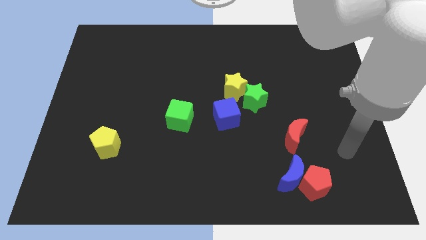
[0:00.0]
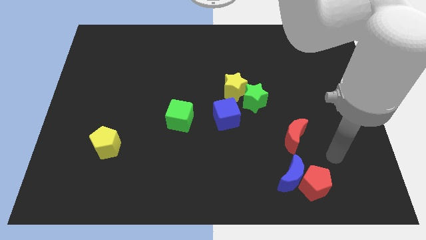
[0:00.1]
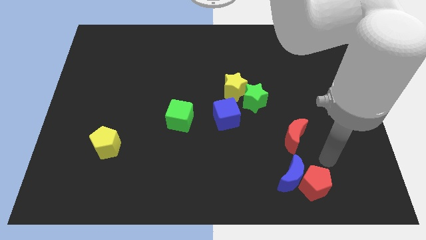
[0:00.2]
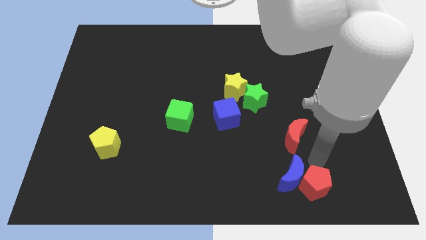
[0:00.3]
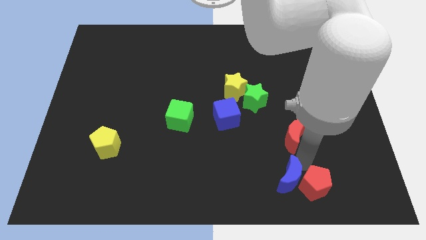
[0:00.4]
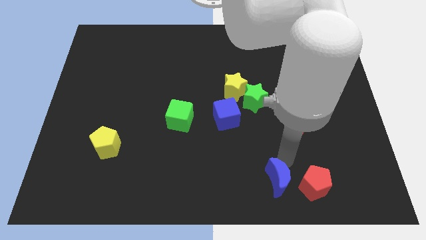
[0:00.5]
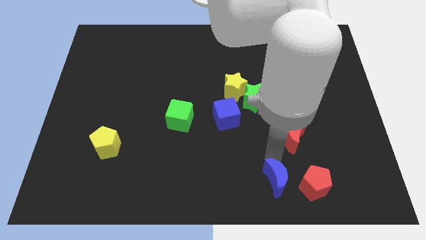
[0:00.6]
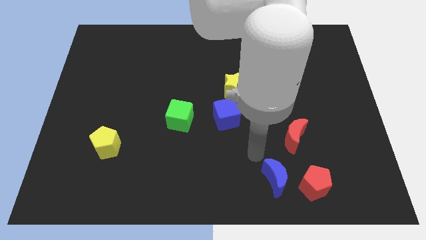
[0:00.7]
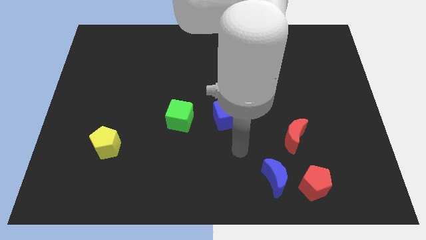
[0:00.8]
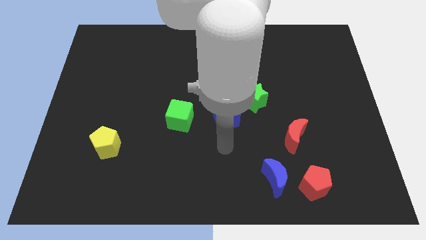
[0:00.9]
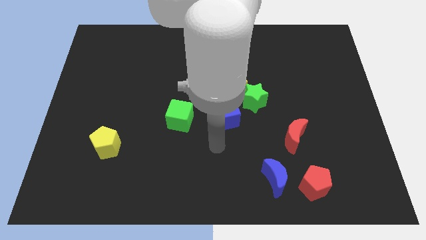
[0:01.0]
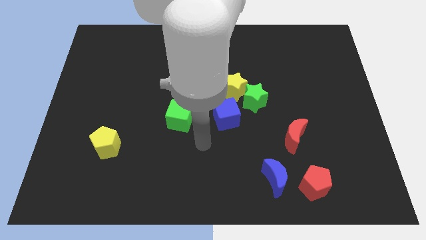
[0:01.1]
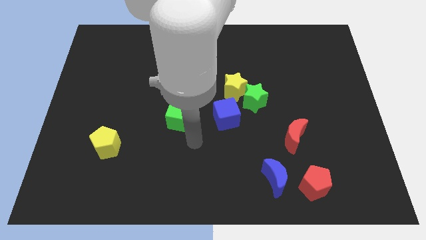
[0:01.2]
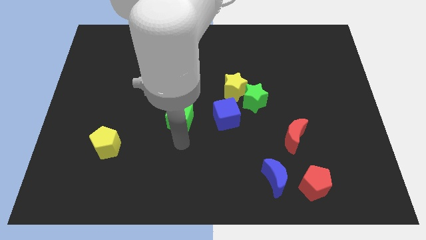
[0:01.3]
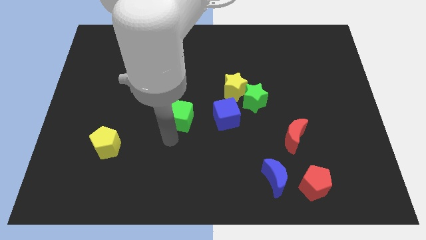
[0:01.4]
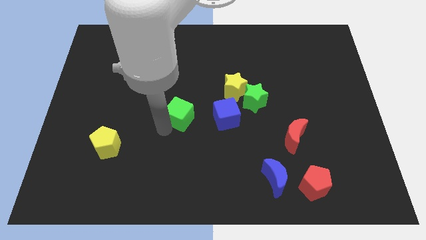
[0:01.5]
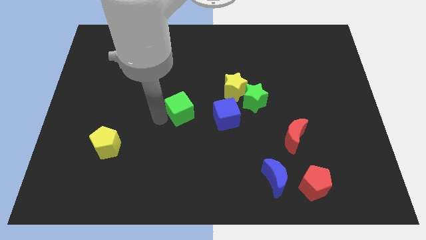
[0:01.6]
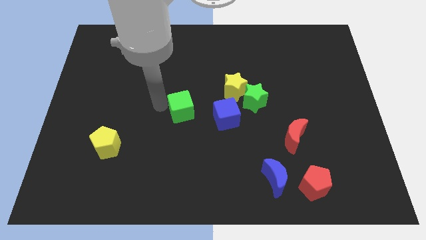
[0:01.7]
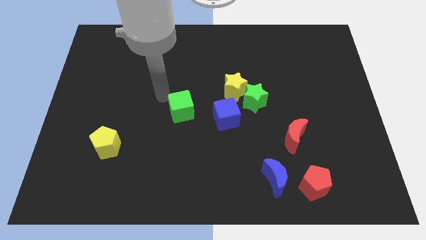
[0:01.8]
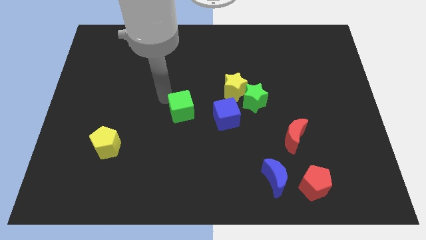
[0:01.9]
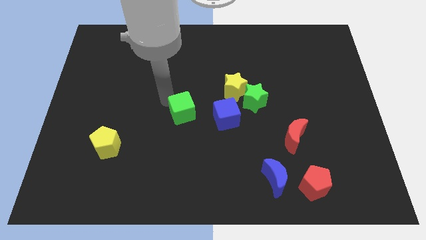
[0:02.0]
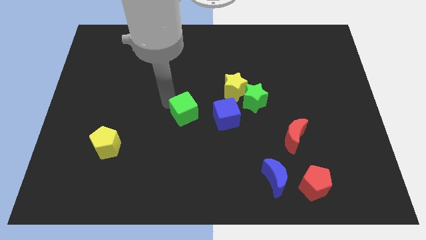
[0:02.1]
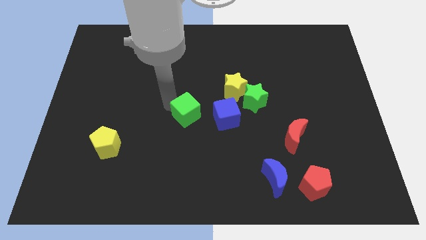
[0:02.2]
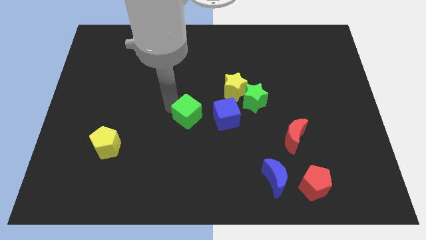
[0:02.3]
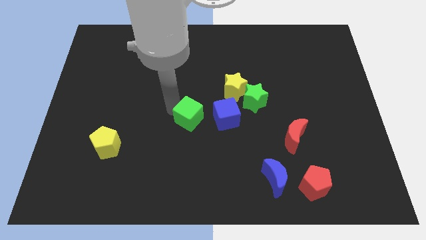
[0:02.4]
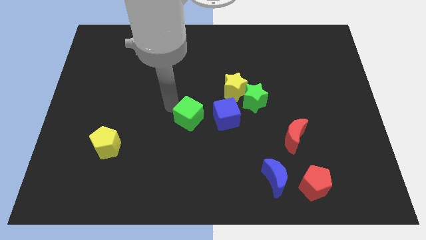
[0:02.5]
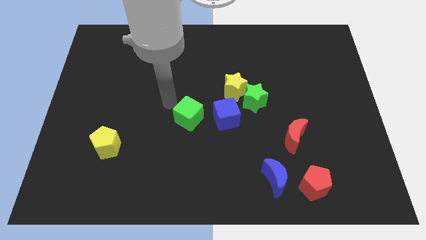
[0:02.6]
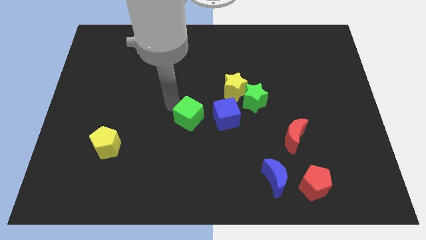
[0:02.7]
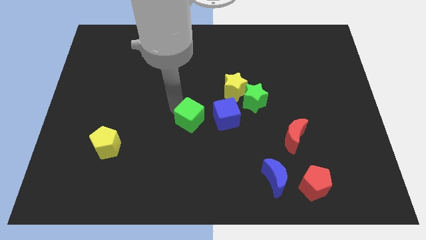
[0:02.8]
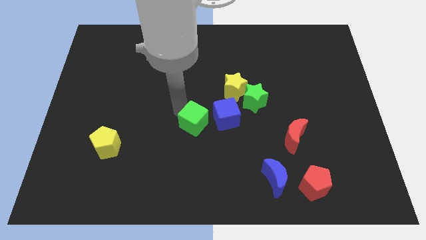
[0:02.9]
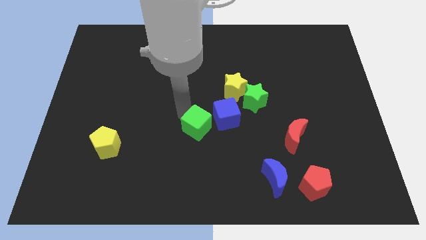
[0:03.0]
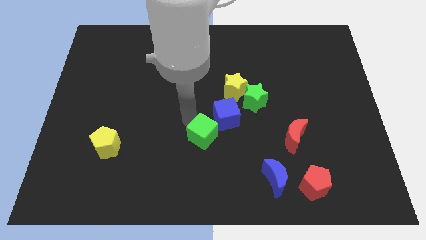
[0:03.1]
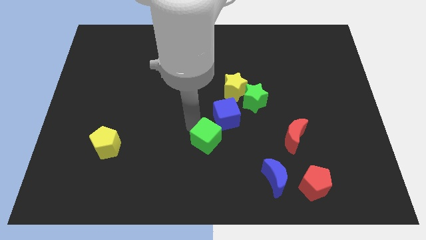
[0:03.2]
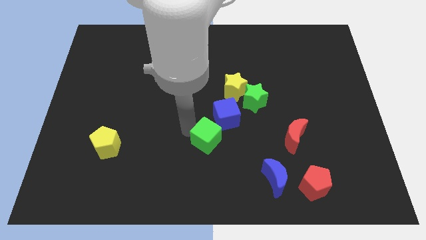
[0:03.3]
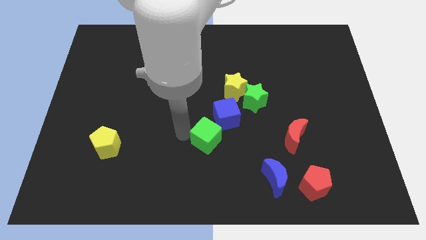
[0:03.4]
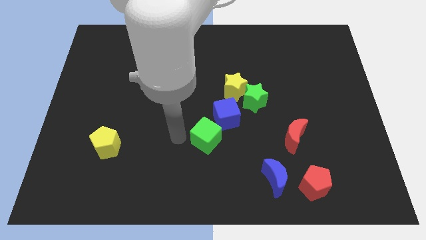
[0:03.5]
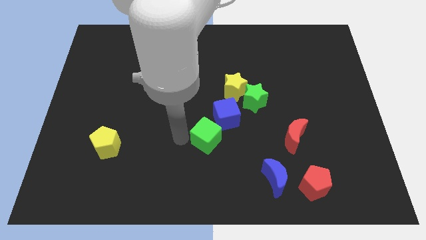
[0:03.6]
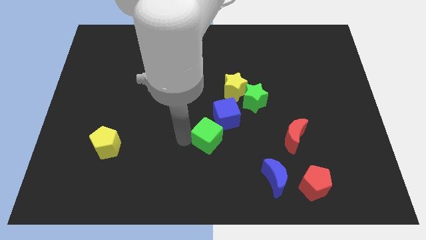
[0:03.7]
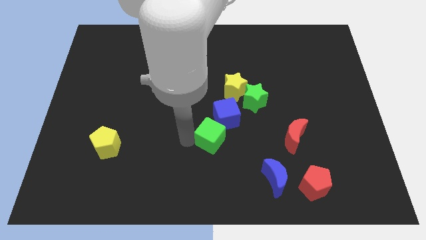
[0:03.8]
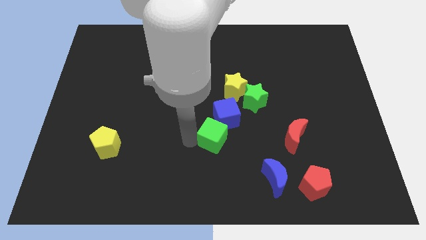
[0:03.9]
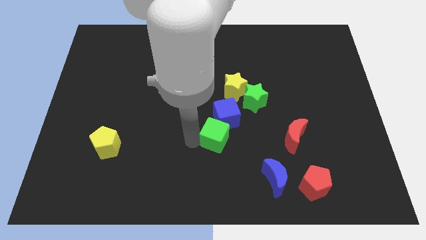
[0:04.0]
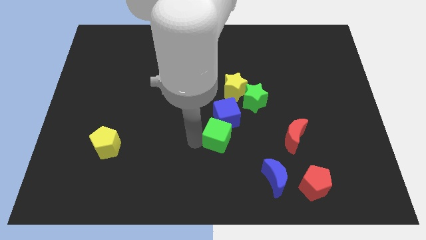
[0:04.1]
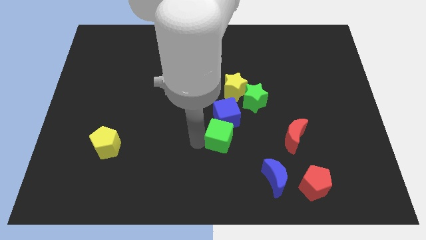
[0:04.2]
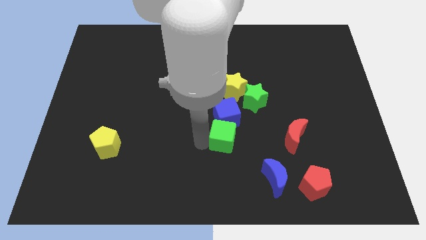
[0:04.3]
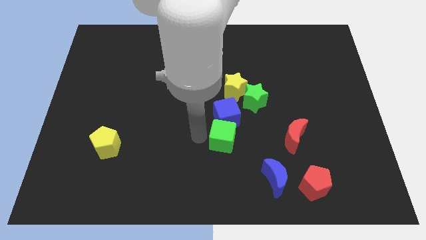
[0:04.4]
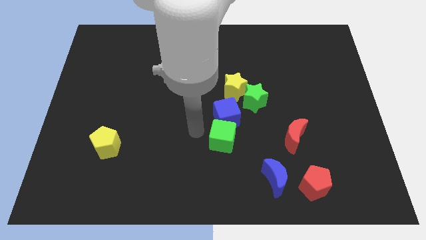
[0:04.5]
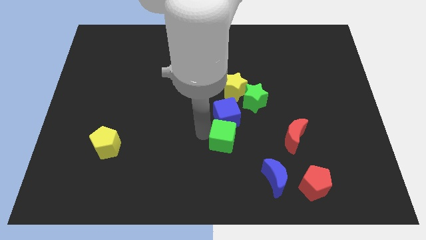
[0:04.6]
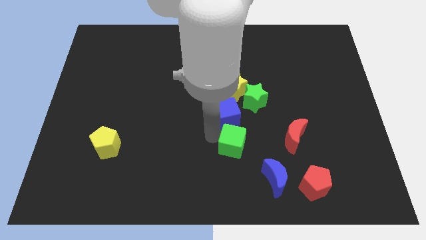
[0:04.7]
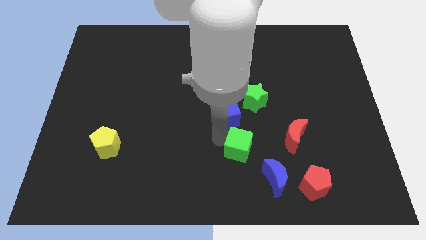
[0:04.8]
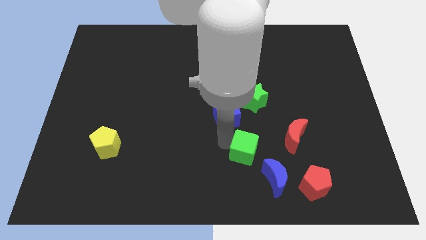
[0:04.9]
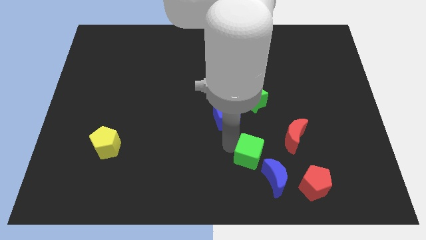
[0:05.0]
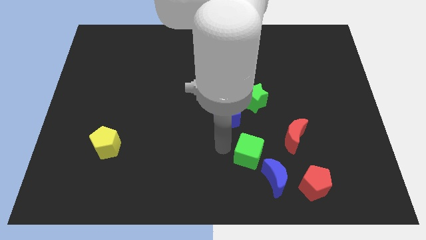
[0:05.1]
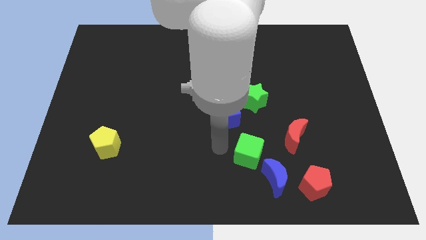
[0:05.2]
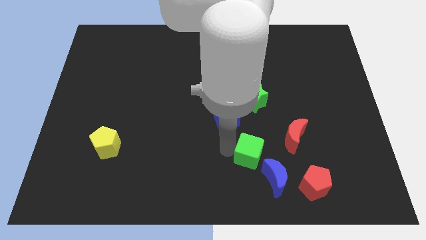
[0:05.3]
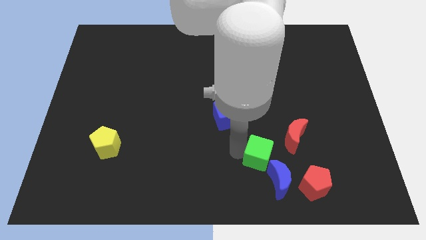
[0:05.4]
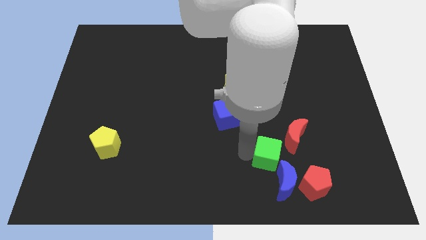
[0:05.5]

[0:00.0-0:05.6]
move the green cube to the top left of the red pentagon
